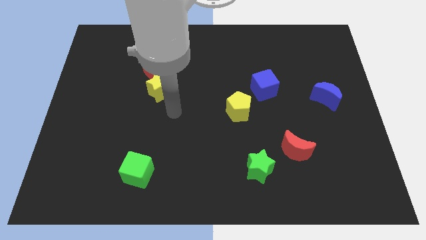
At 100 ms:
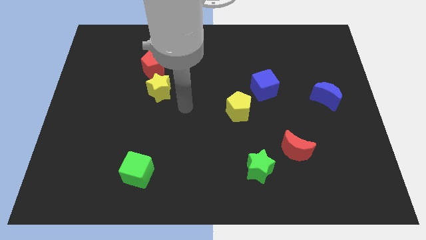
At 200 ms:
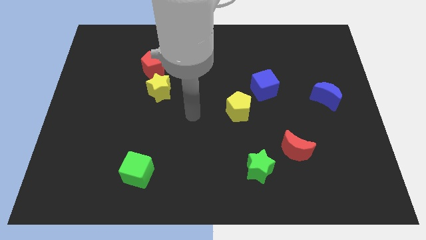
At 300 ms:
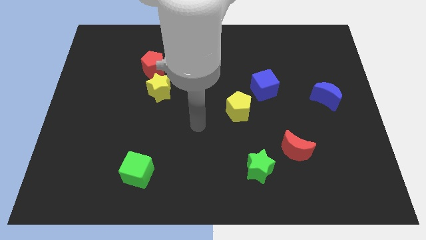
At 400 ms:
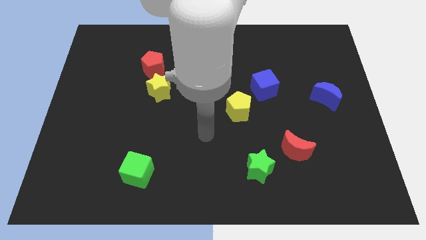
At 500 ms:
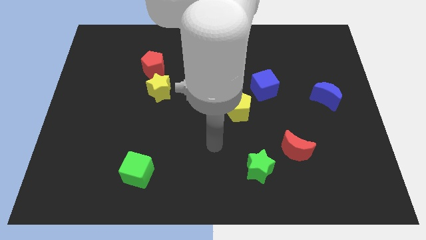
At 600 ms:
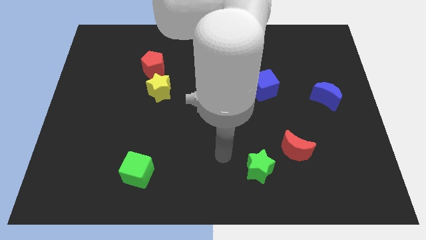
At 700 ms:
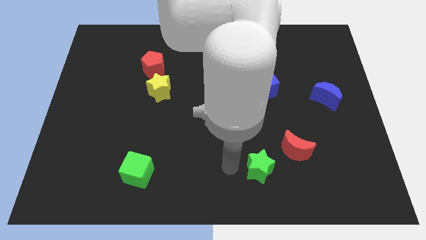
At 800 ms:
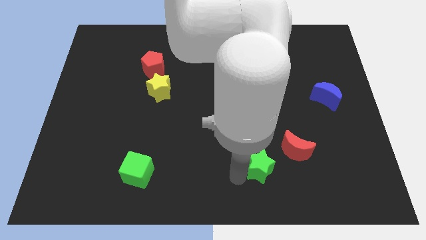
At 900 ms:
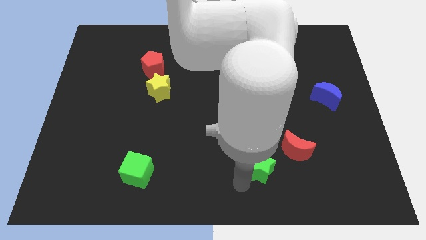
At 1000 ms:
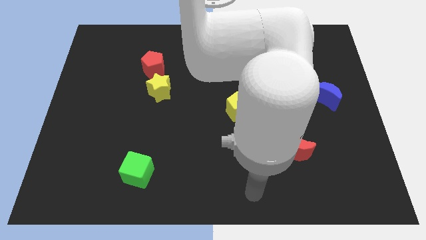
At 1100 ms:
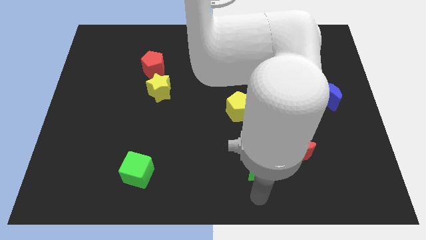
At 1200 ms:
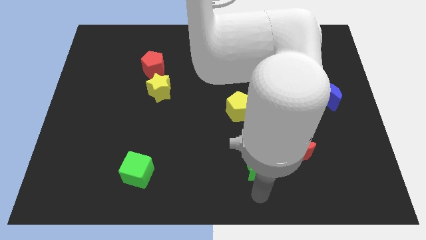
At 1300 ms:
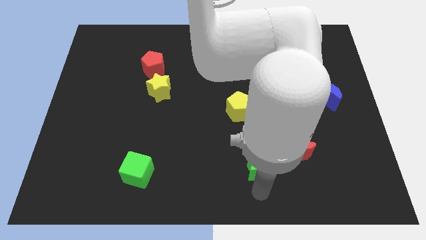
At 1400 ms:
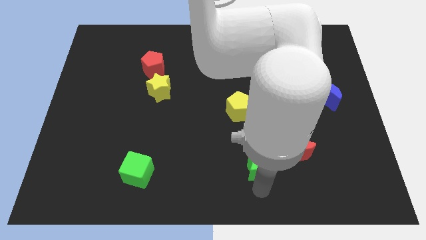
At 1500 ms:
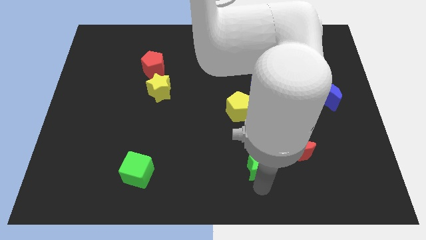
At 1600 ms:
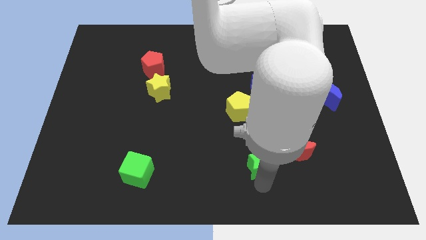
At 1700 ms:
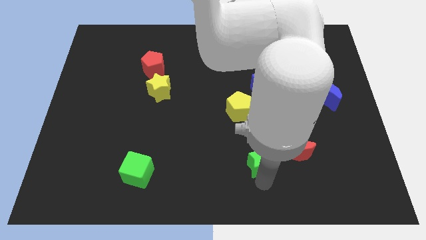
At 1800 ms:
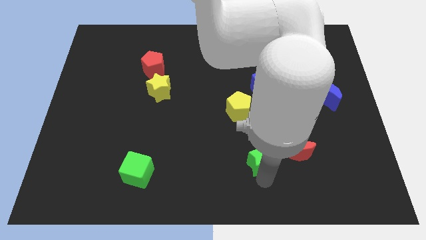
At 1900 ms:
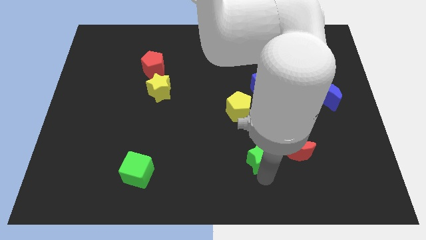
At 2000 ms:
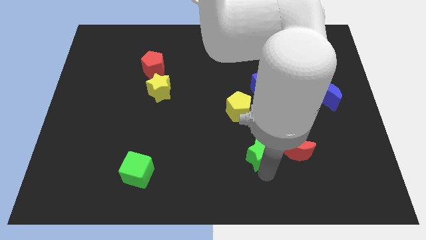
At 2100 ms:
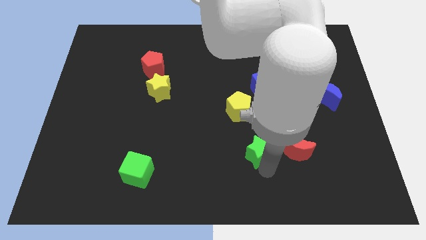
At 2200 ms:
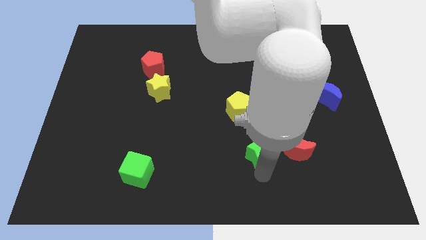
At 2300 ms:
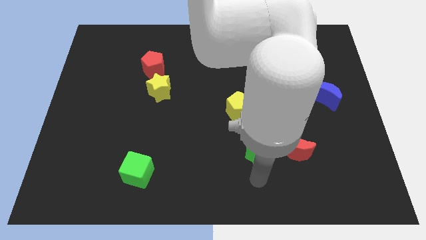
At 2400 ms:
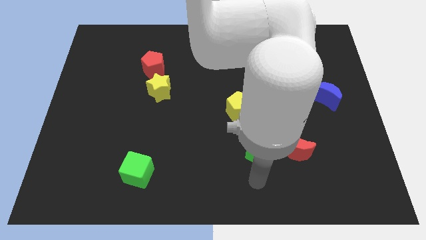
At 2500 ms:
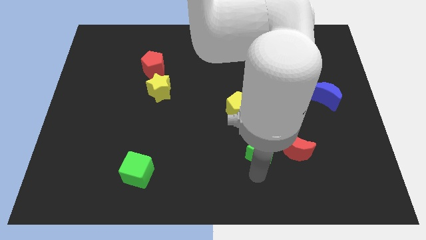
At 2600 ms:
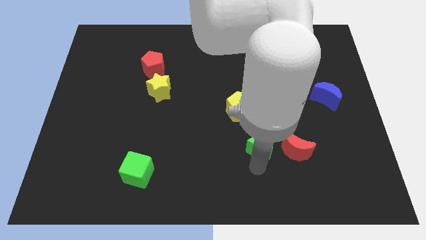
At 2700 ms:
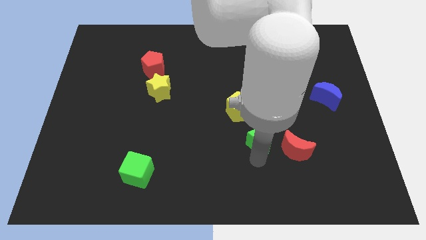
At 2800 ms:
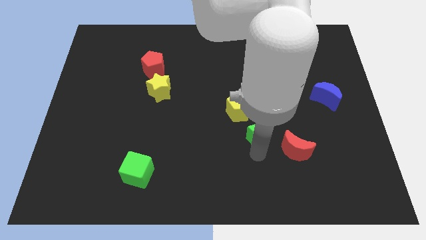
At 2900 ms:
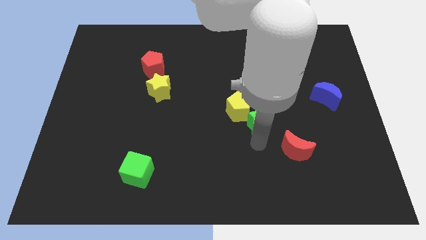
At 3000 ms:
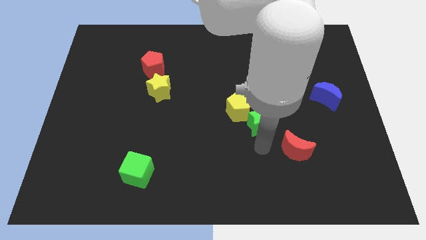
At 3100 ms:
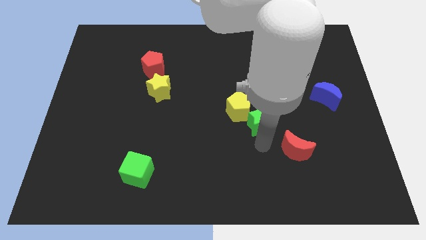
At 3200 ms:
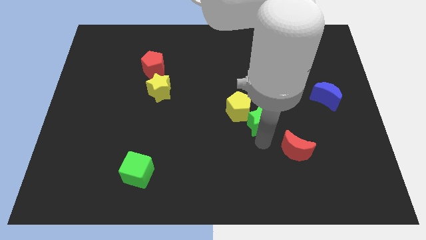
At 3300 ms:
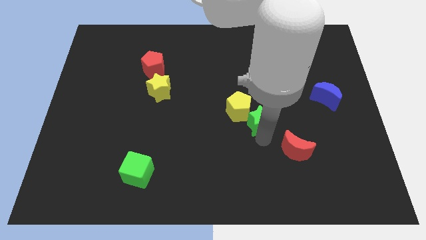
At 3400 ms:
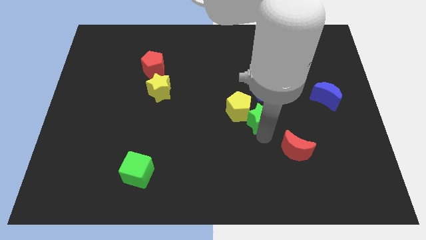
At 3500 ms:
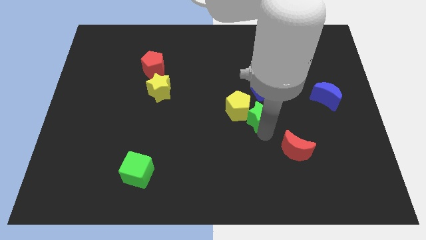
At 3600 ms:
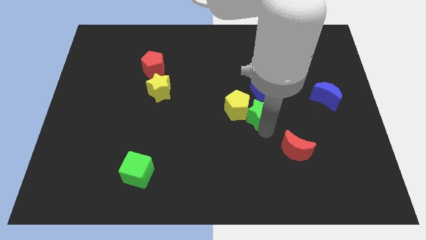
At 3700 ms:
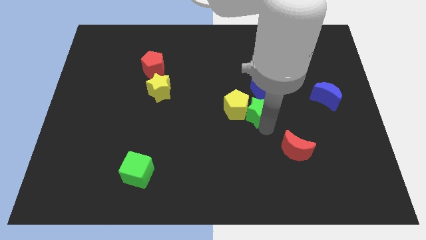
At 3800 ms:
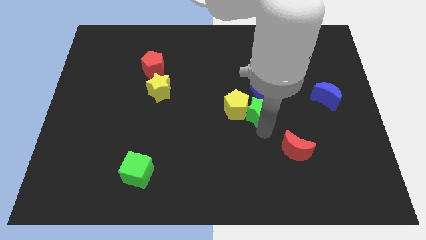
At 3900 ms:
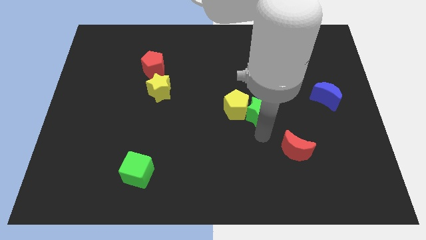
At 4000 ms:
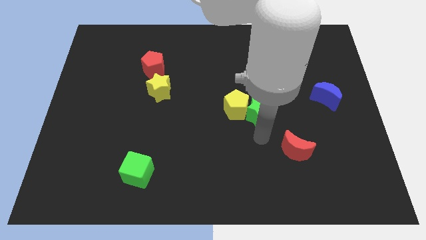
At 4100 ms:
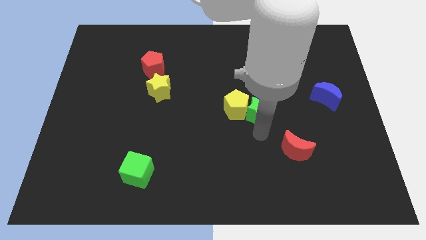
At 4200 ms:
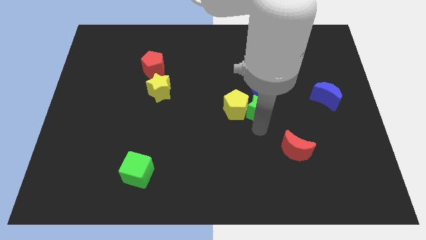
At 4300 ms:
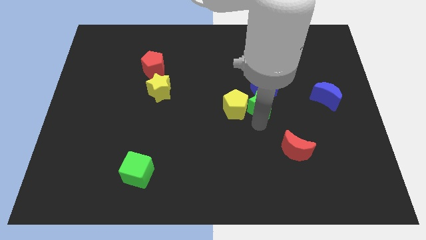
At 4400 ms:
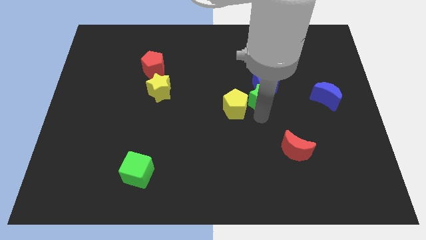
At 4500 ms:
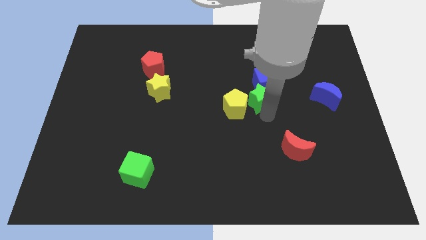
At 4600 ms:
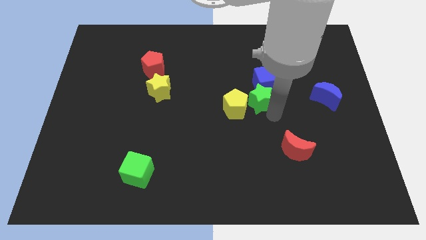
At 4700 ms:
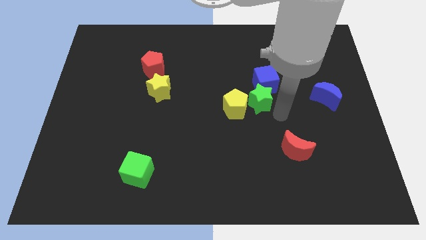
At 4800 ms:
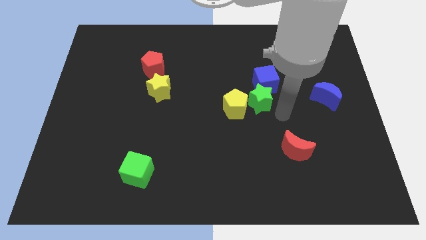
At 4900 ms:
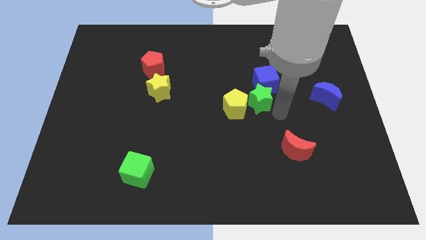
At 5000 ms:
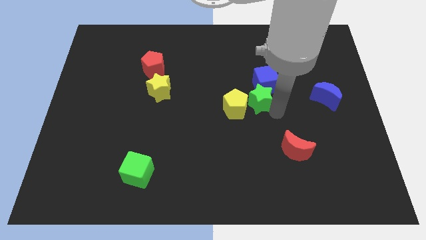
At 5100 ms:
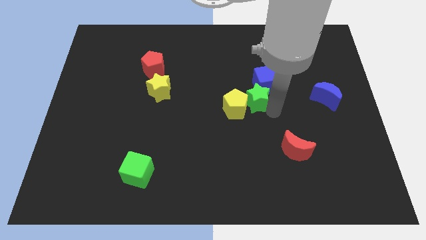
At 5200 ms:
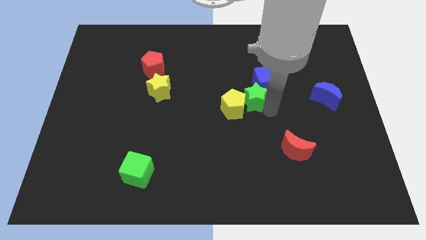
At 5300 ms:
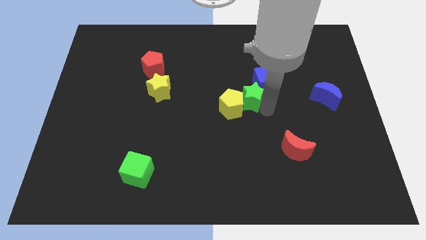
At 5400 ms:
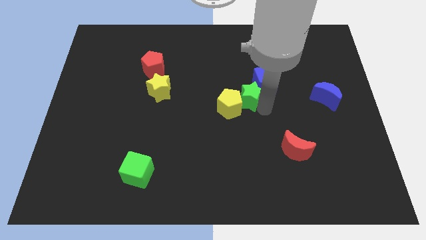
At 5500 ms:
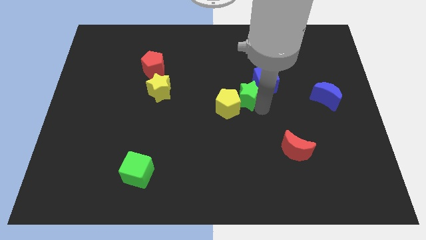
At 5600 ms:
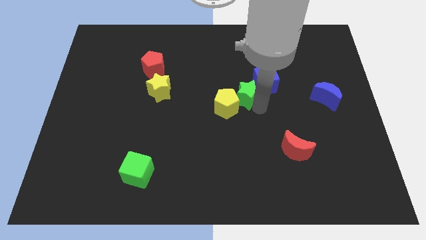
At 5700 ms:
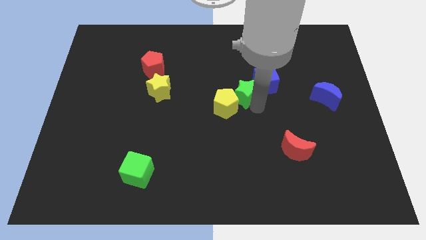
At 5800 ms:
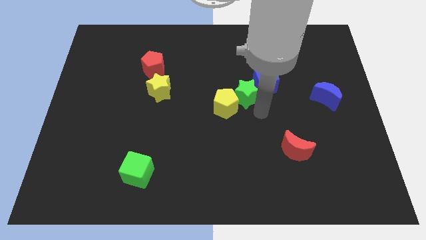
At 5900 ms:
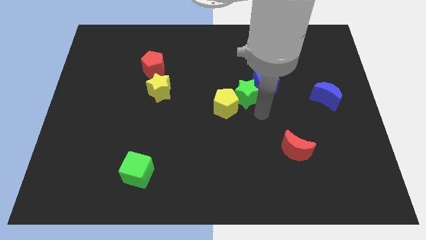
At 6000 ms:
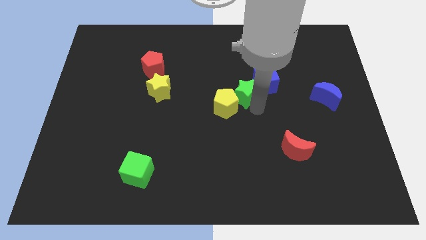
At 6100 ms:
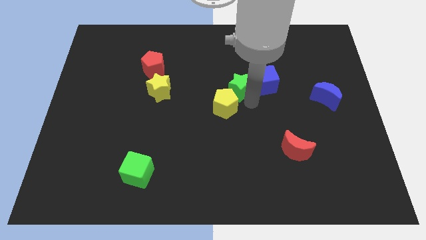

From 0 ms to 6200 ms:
slide the green star above the yellow pentagon

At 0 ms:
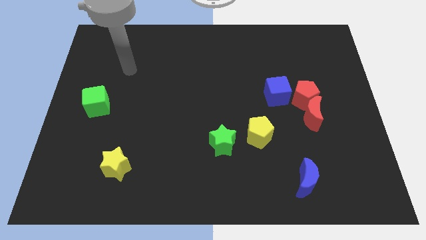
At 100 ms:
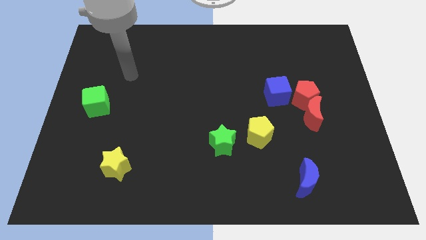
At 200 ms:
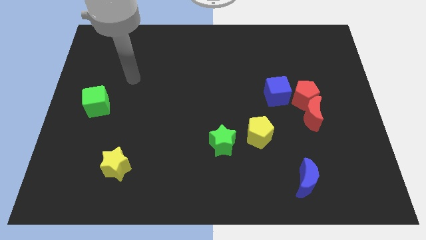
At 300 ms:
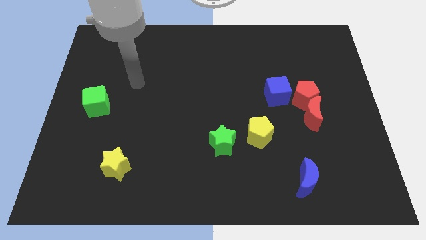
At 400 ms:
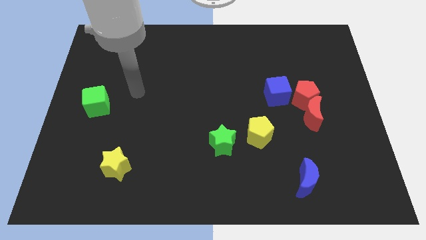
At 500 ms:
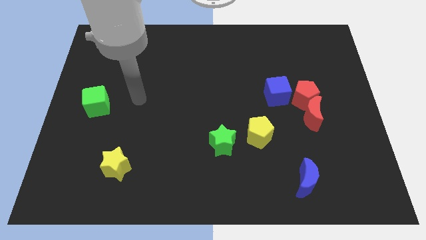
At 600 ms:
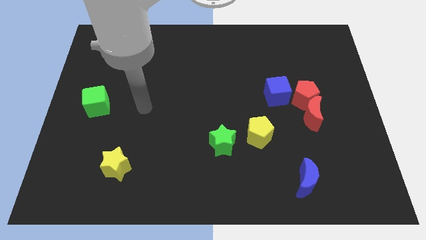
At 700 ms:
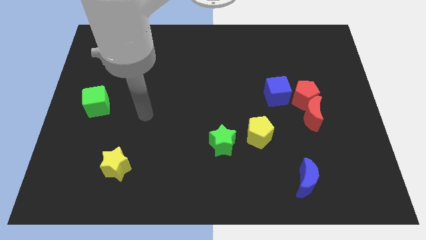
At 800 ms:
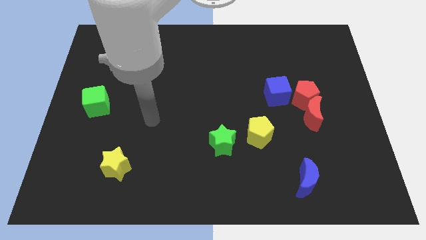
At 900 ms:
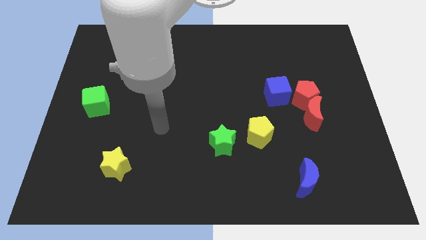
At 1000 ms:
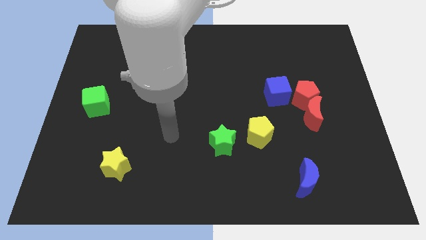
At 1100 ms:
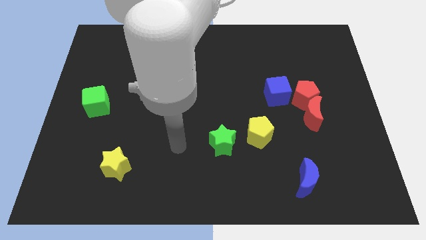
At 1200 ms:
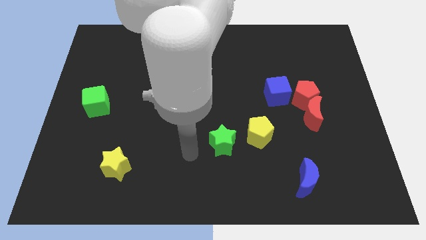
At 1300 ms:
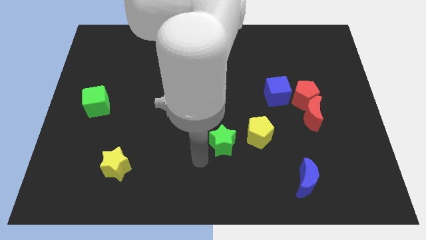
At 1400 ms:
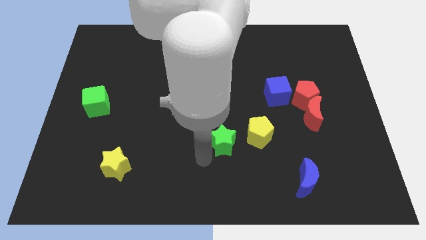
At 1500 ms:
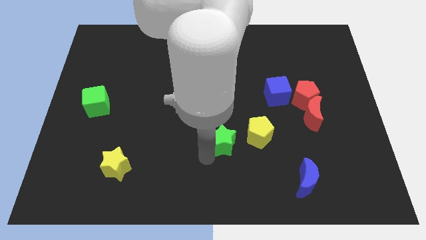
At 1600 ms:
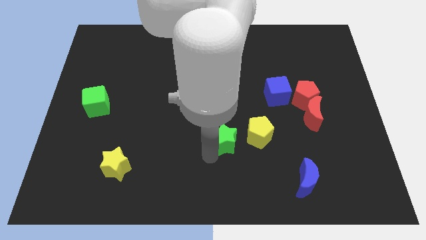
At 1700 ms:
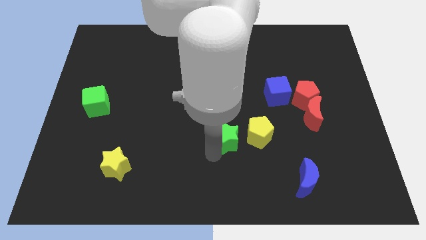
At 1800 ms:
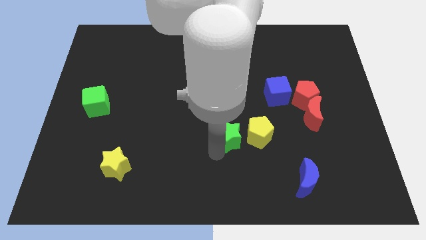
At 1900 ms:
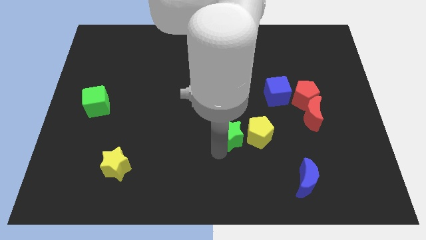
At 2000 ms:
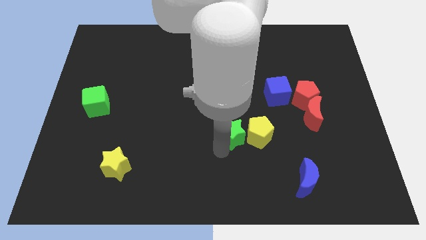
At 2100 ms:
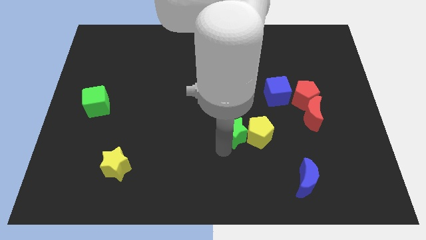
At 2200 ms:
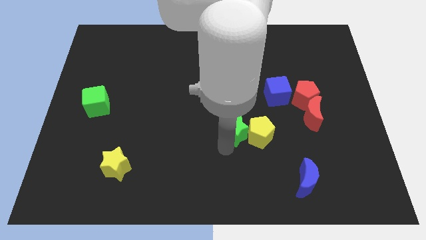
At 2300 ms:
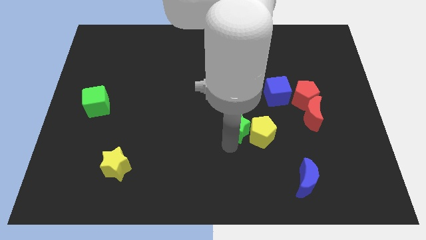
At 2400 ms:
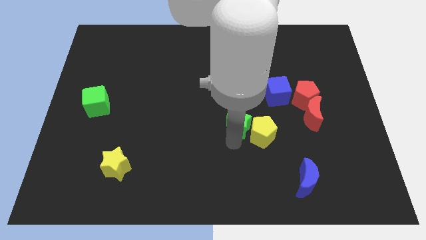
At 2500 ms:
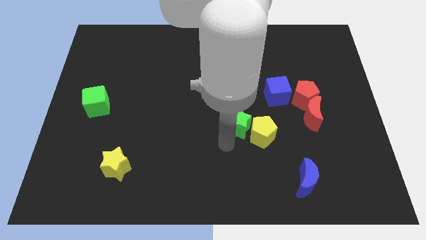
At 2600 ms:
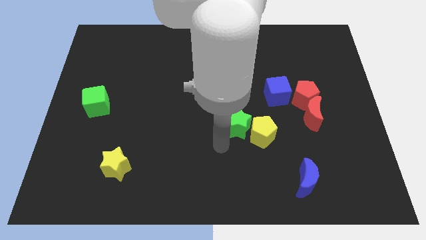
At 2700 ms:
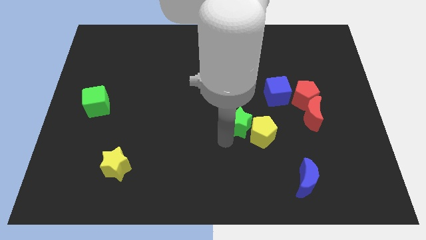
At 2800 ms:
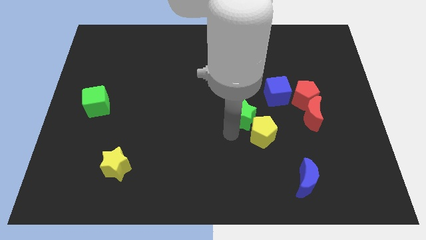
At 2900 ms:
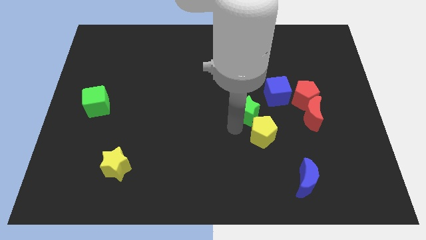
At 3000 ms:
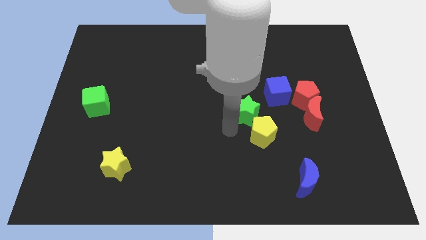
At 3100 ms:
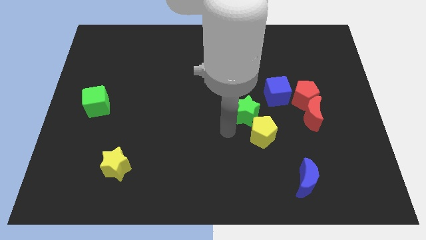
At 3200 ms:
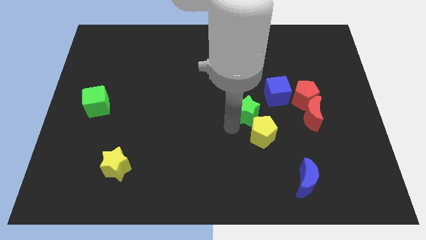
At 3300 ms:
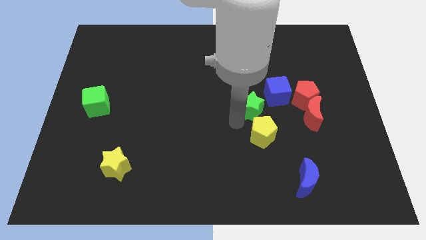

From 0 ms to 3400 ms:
push the green star to the left of the red pentagon
